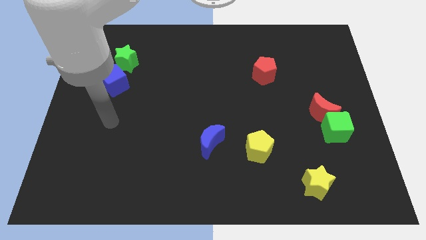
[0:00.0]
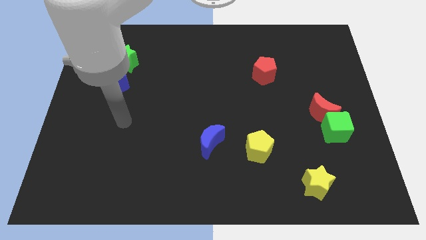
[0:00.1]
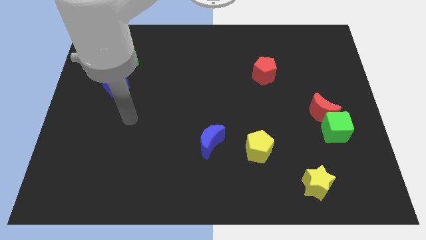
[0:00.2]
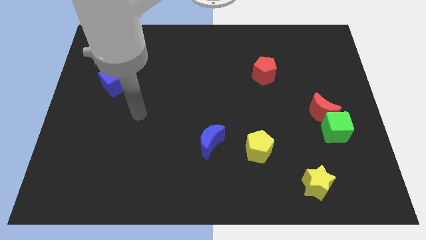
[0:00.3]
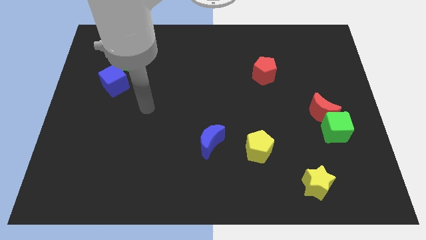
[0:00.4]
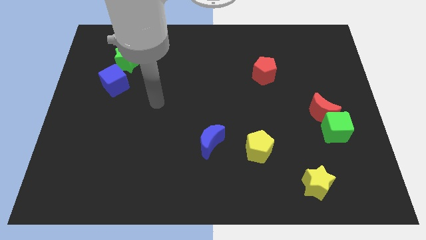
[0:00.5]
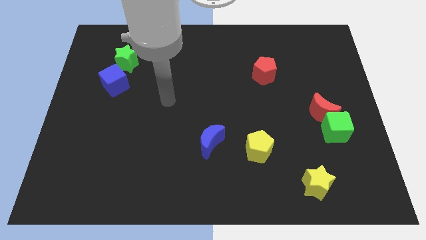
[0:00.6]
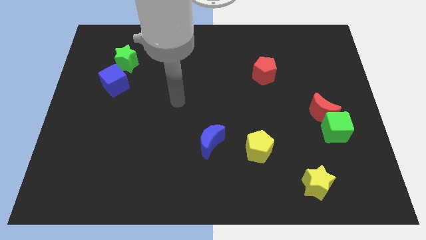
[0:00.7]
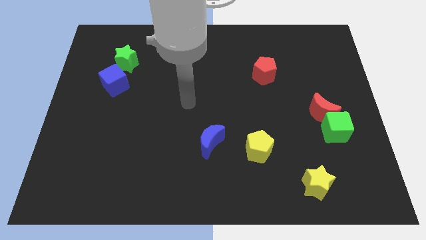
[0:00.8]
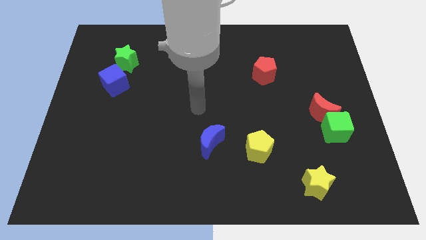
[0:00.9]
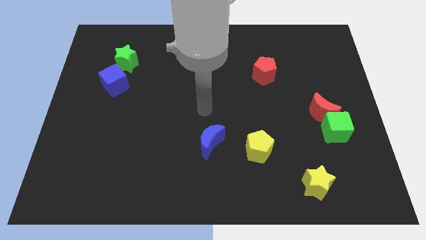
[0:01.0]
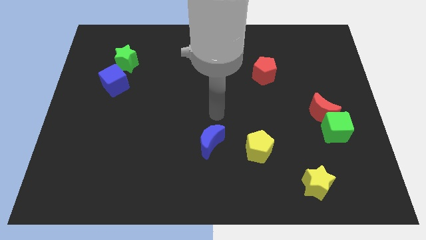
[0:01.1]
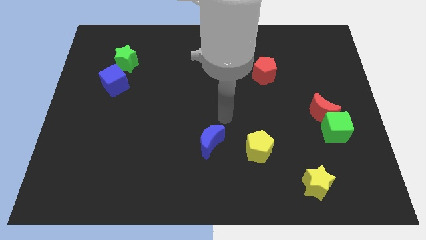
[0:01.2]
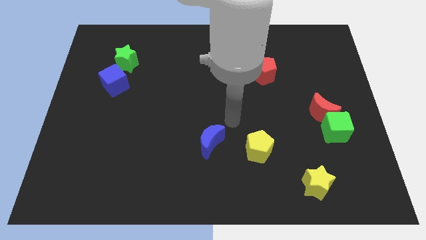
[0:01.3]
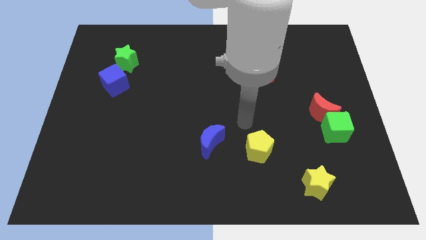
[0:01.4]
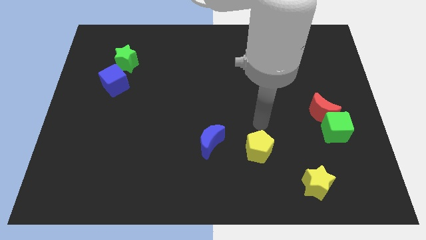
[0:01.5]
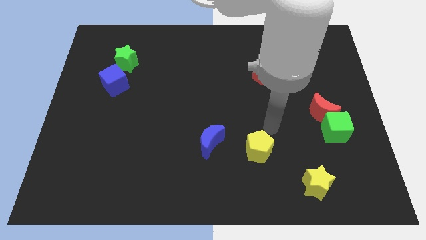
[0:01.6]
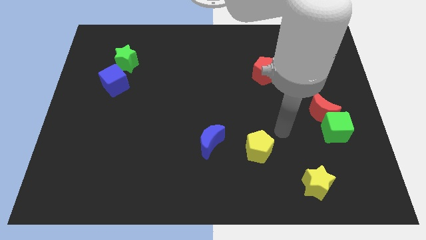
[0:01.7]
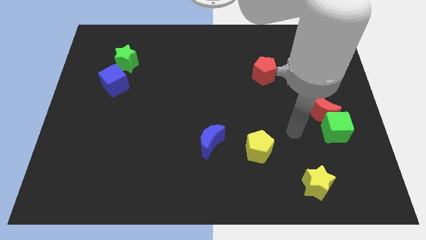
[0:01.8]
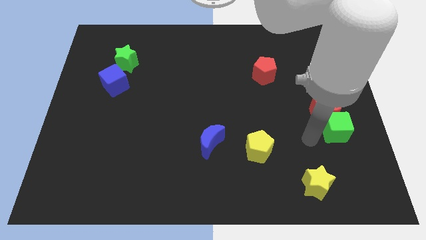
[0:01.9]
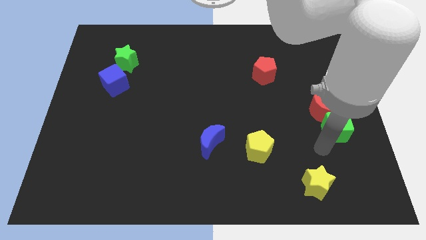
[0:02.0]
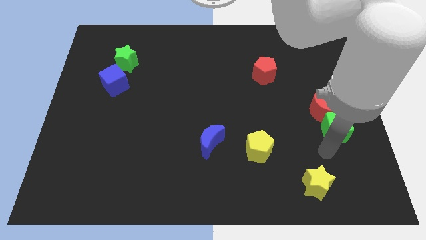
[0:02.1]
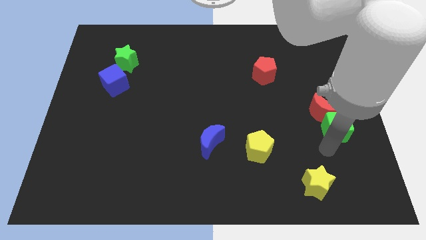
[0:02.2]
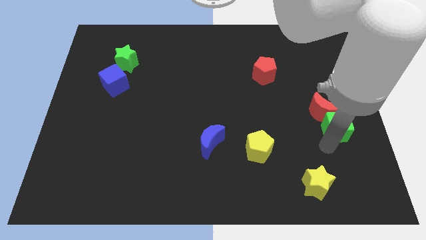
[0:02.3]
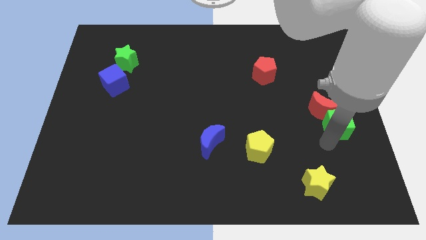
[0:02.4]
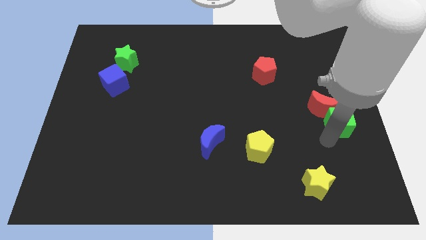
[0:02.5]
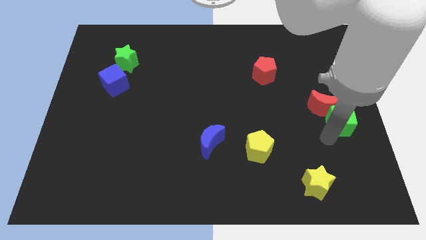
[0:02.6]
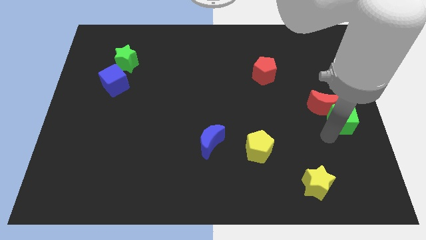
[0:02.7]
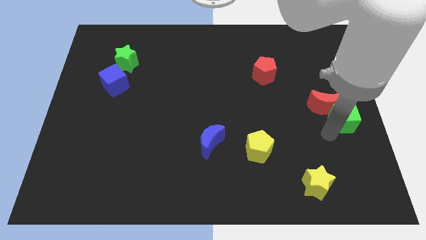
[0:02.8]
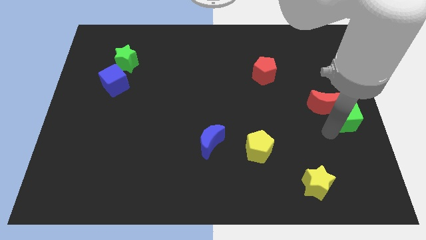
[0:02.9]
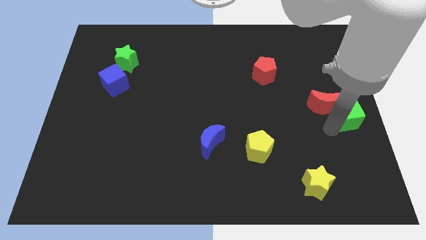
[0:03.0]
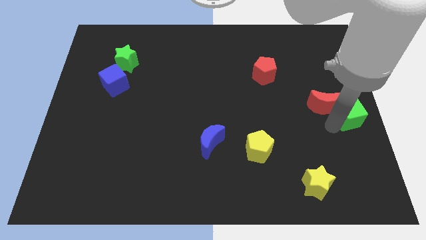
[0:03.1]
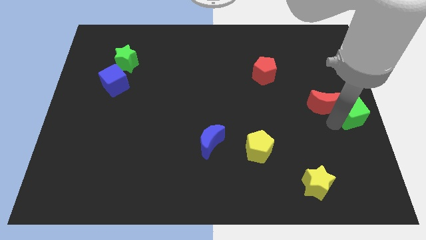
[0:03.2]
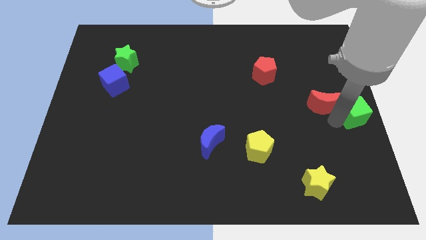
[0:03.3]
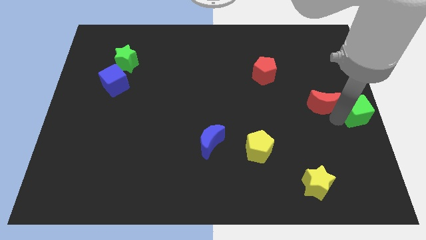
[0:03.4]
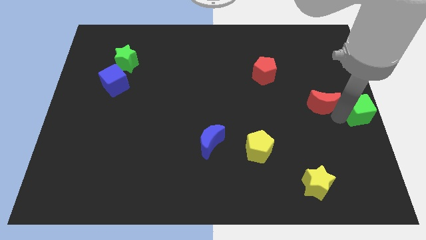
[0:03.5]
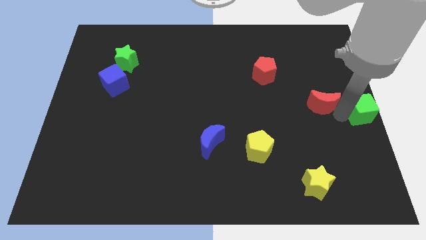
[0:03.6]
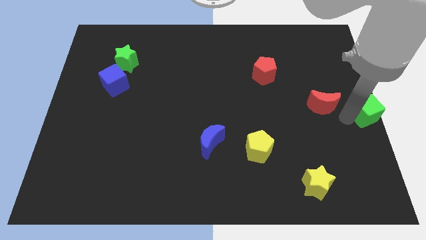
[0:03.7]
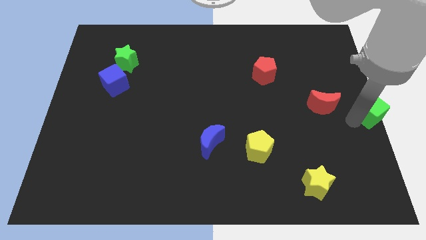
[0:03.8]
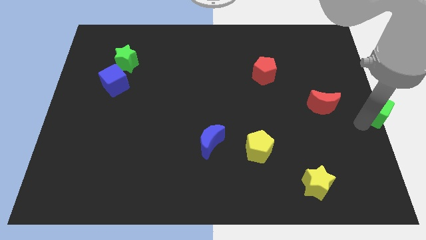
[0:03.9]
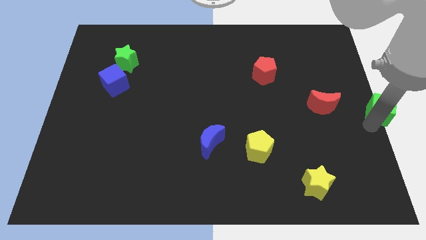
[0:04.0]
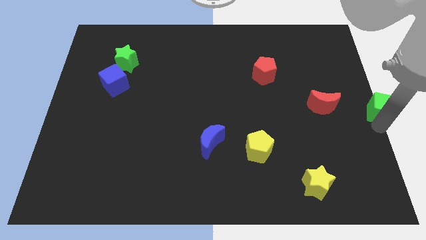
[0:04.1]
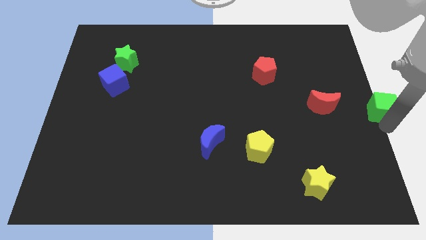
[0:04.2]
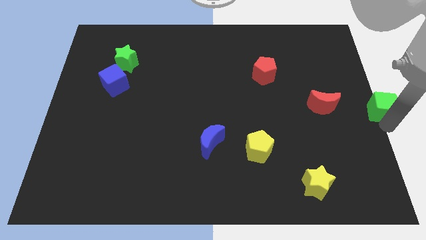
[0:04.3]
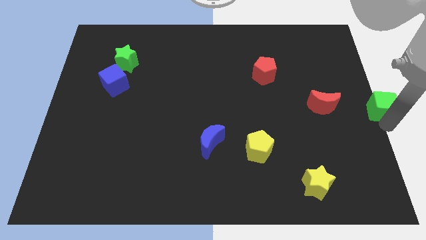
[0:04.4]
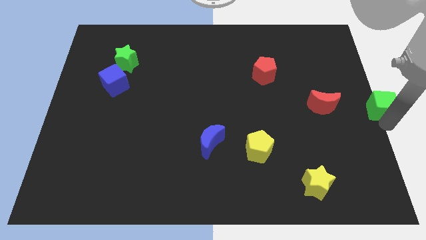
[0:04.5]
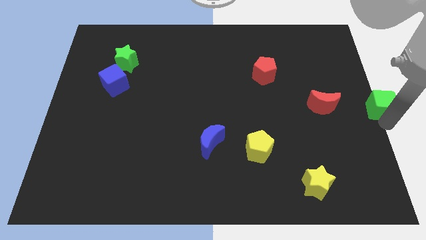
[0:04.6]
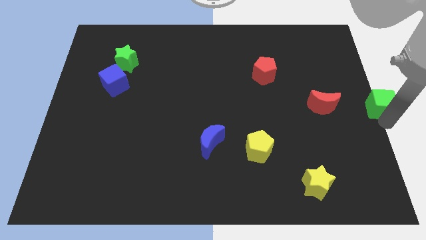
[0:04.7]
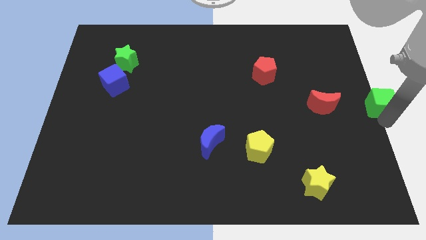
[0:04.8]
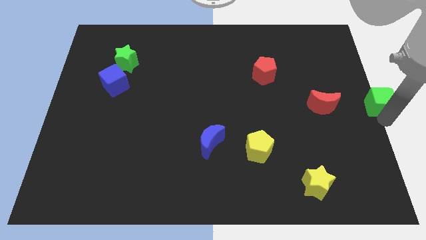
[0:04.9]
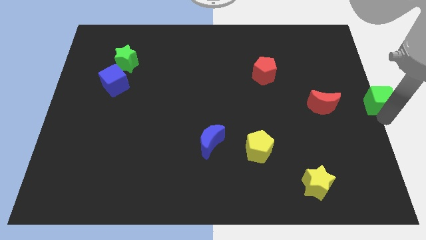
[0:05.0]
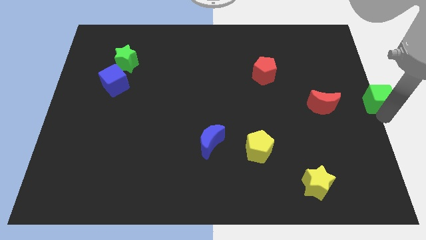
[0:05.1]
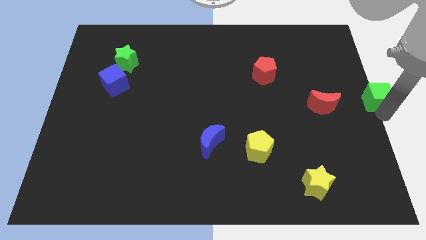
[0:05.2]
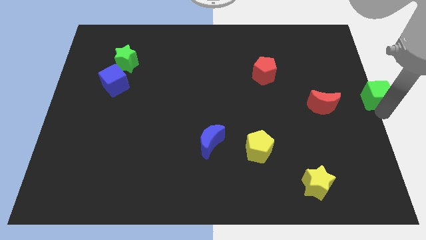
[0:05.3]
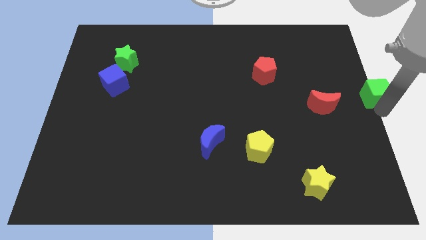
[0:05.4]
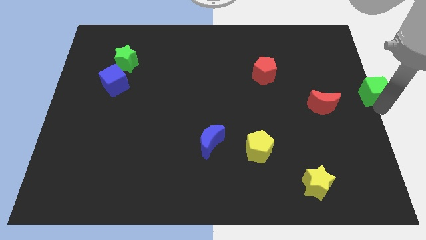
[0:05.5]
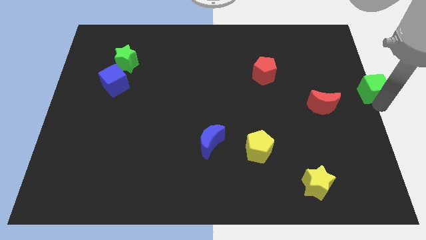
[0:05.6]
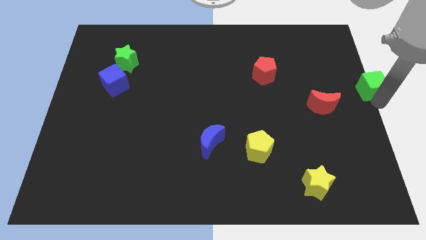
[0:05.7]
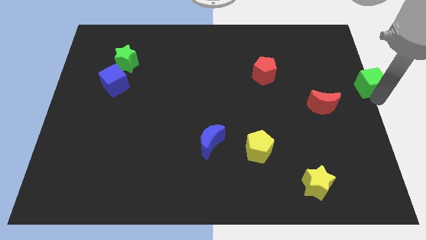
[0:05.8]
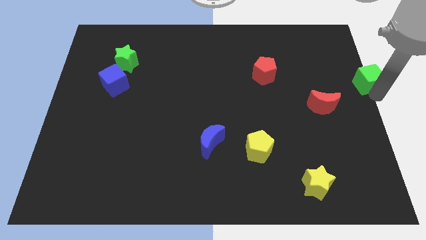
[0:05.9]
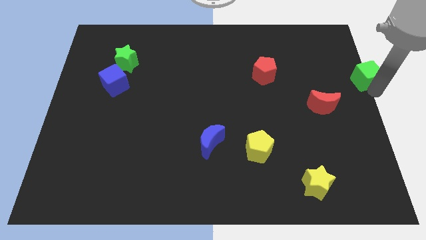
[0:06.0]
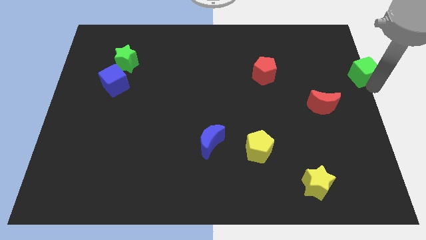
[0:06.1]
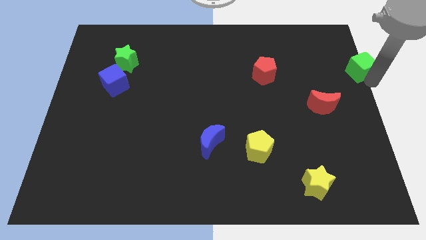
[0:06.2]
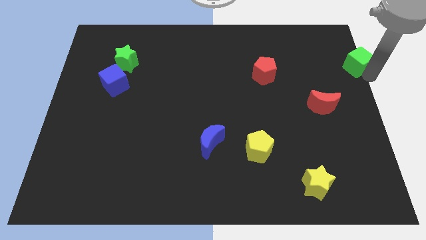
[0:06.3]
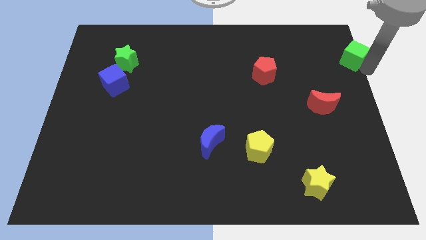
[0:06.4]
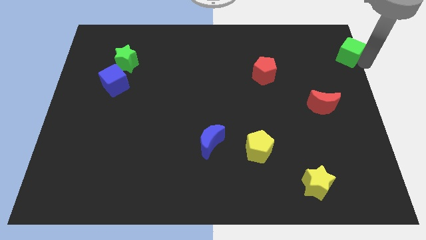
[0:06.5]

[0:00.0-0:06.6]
slide the green cube to the top right corner
